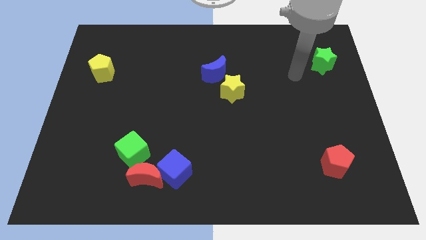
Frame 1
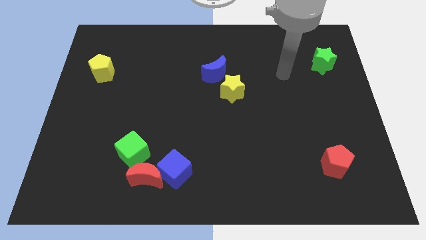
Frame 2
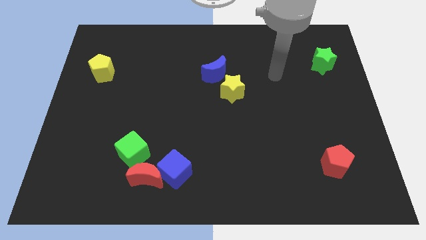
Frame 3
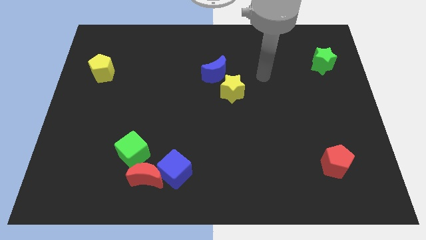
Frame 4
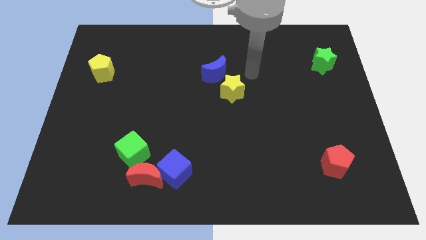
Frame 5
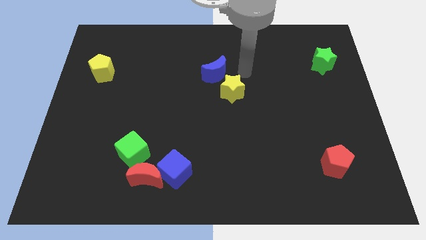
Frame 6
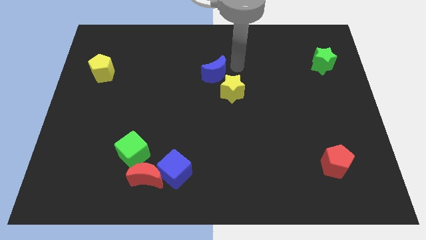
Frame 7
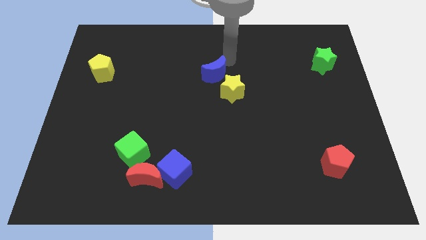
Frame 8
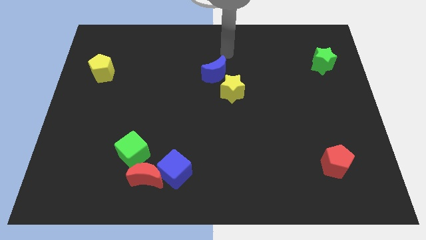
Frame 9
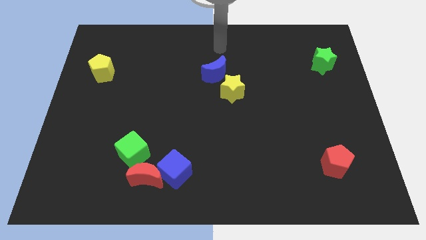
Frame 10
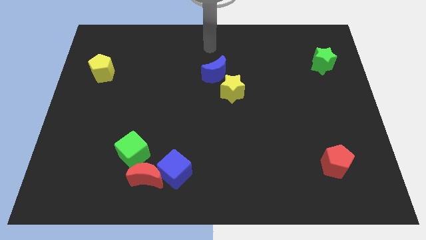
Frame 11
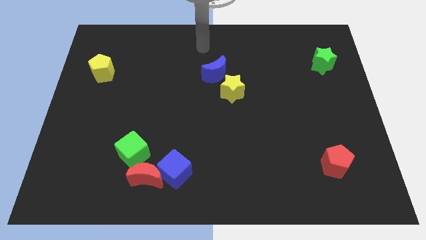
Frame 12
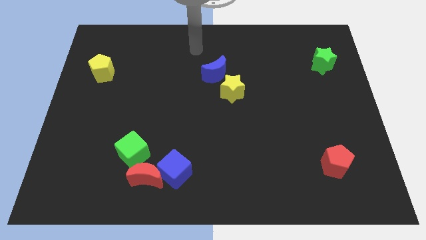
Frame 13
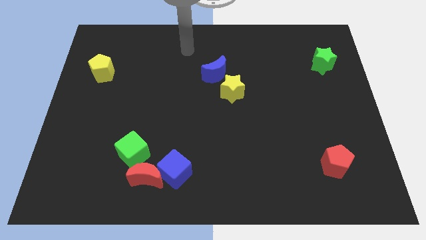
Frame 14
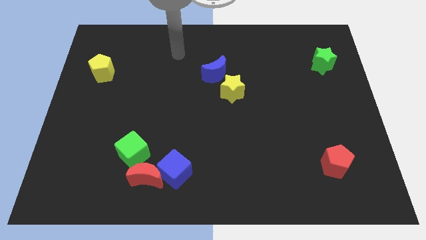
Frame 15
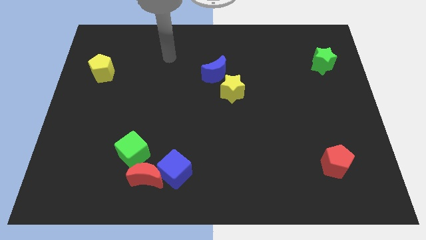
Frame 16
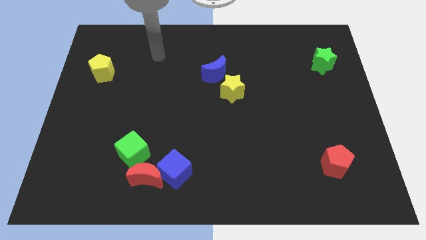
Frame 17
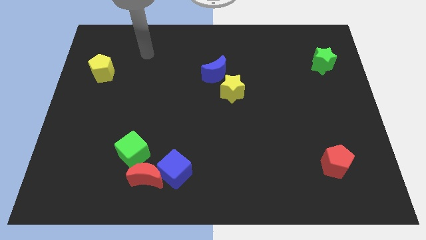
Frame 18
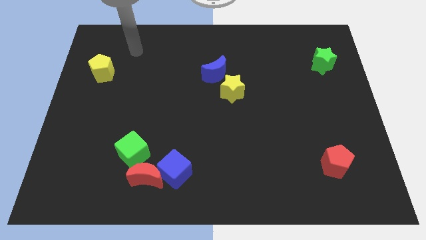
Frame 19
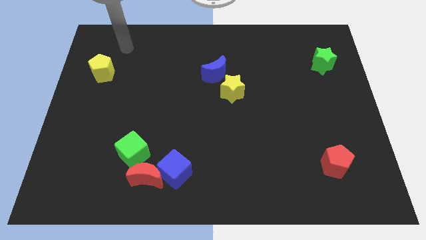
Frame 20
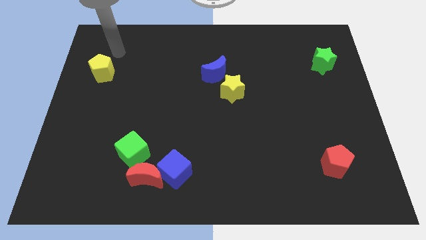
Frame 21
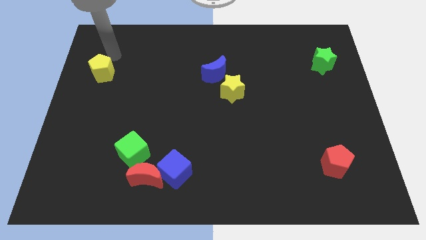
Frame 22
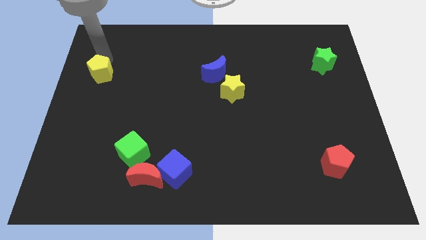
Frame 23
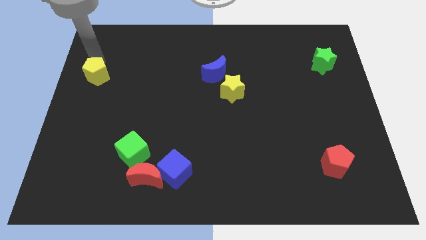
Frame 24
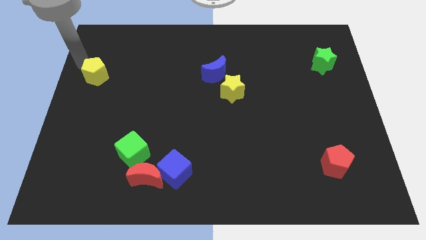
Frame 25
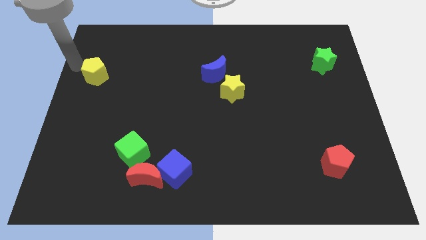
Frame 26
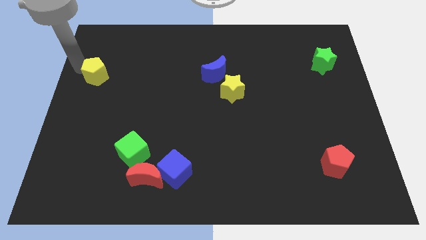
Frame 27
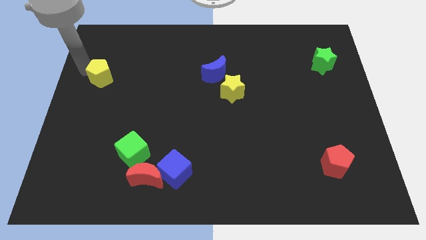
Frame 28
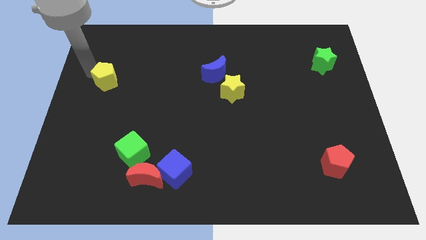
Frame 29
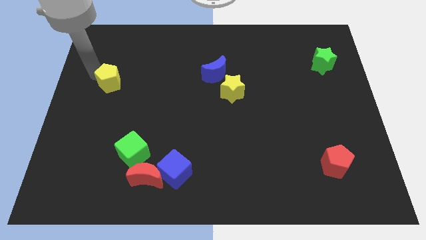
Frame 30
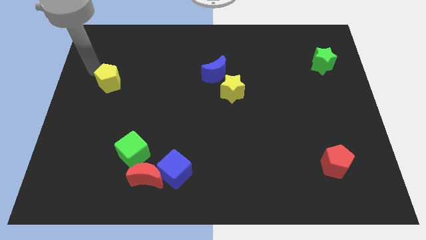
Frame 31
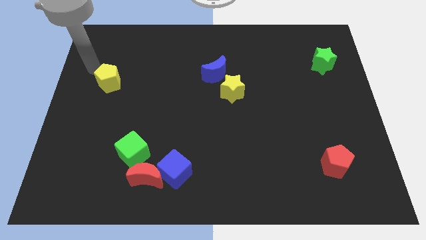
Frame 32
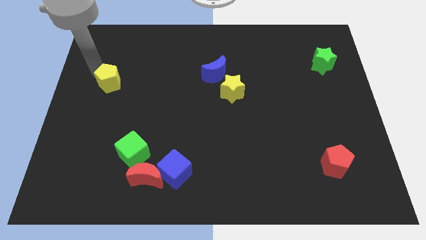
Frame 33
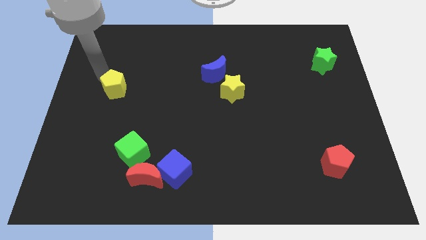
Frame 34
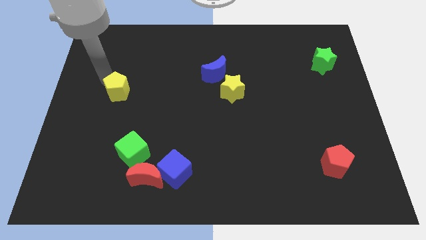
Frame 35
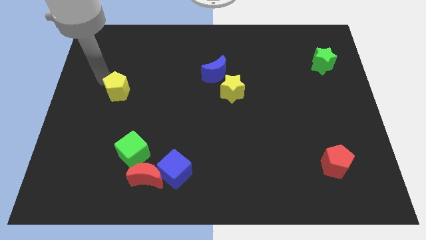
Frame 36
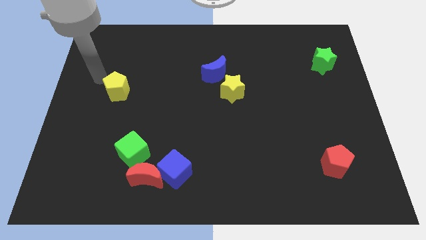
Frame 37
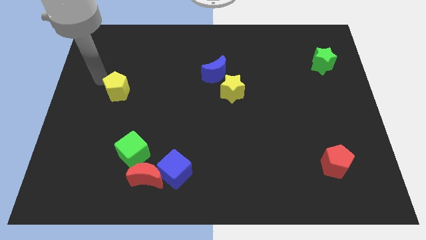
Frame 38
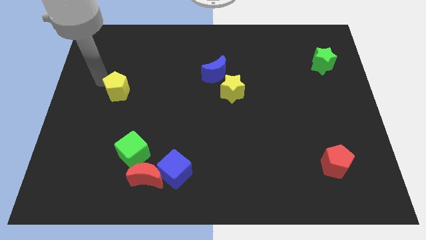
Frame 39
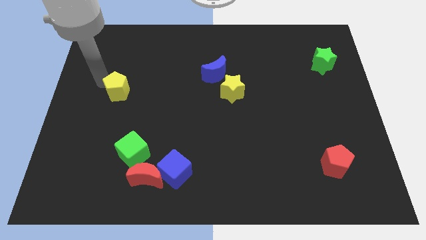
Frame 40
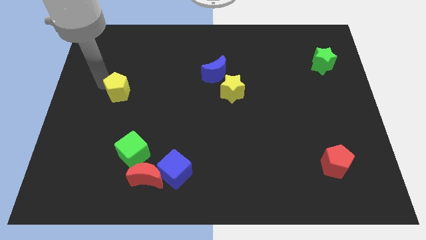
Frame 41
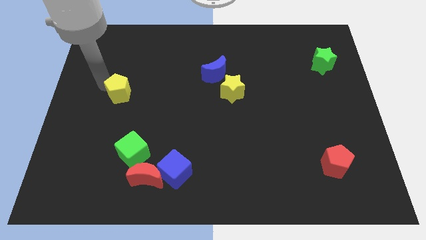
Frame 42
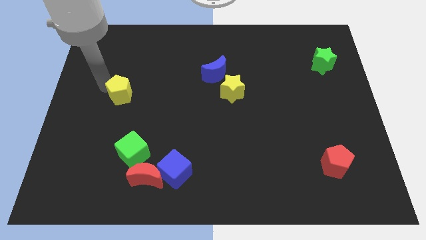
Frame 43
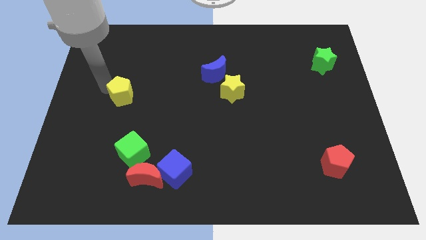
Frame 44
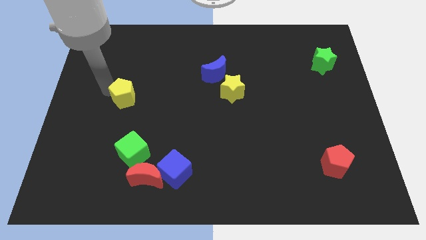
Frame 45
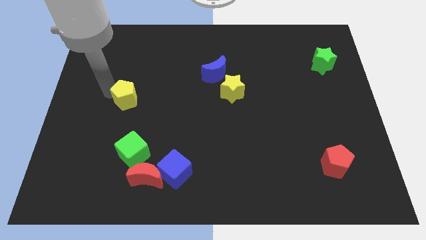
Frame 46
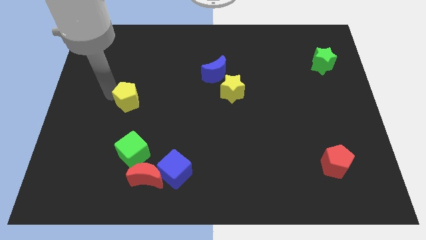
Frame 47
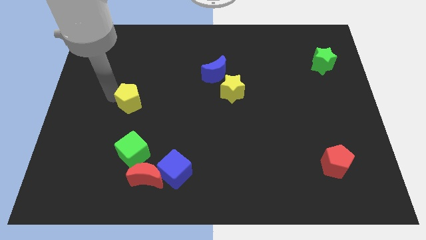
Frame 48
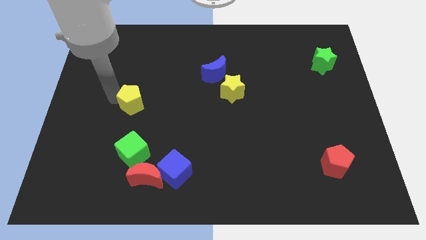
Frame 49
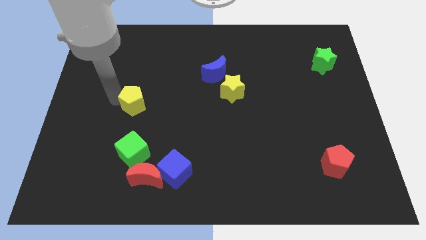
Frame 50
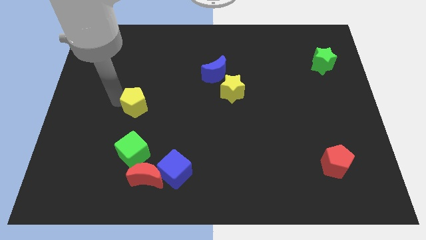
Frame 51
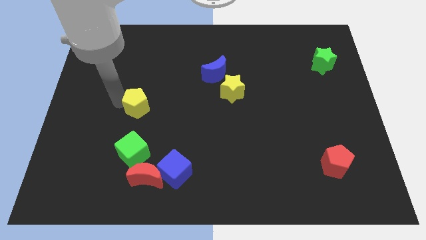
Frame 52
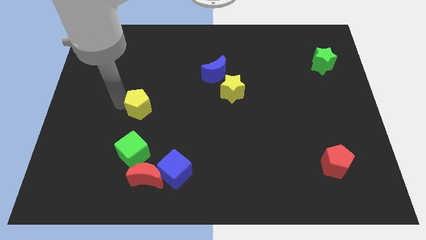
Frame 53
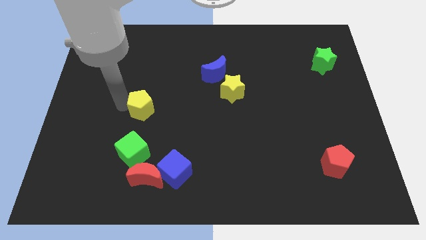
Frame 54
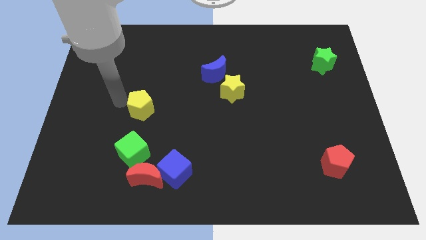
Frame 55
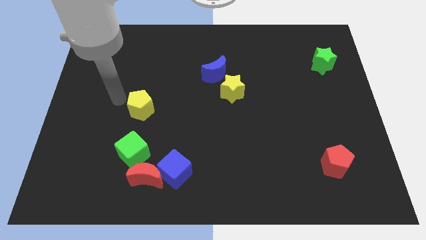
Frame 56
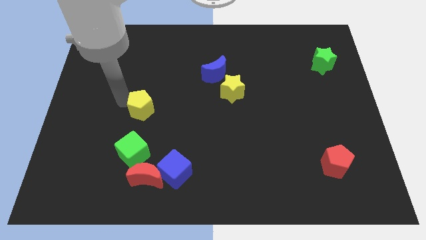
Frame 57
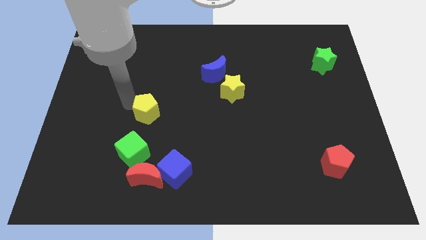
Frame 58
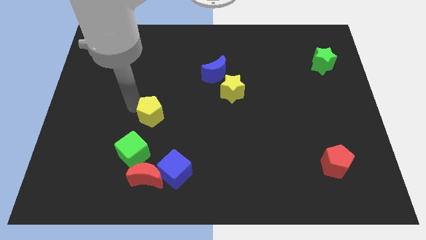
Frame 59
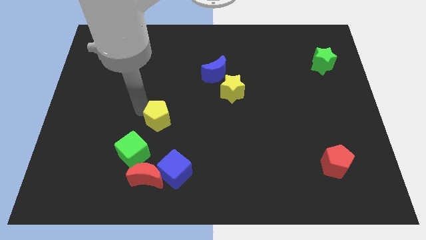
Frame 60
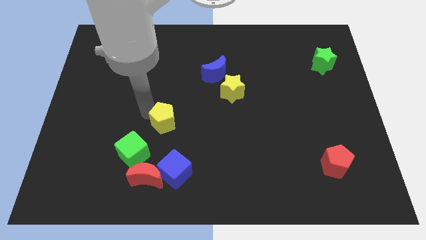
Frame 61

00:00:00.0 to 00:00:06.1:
slide the yellow pentagon to the top of the blue cube
